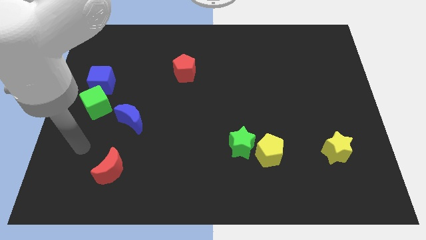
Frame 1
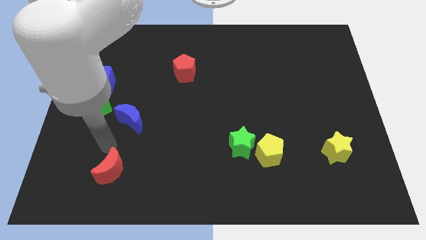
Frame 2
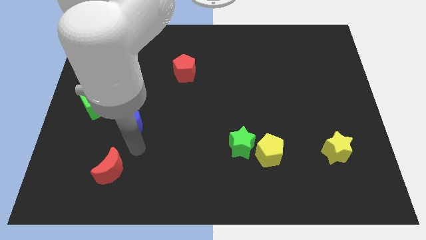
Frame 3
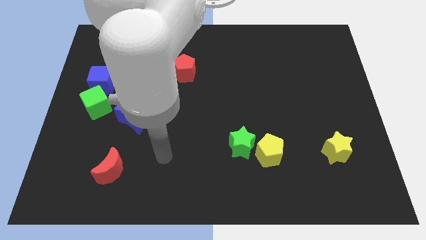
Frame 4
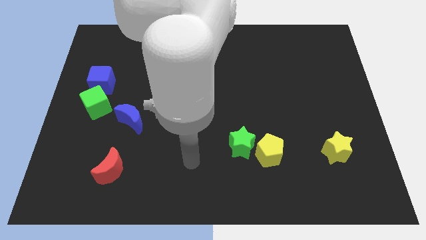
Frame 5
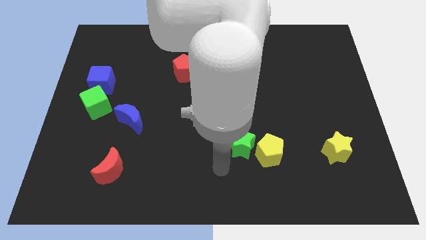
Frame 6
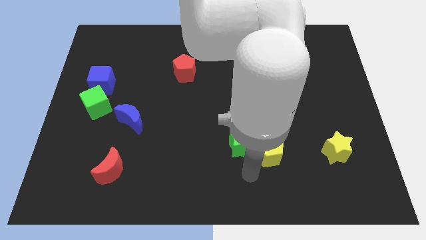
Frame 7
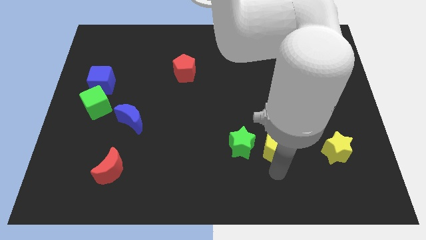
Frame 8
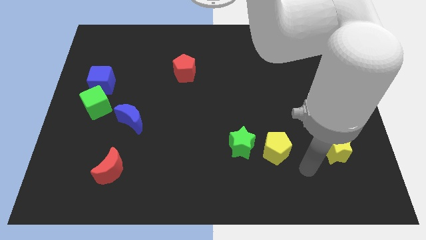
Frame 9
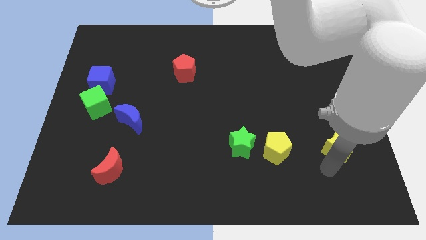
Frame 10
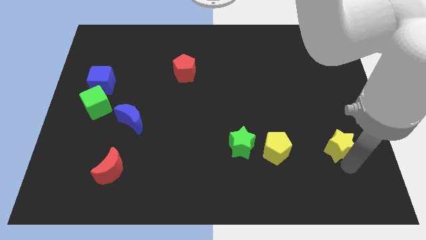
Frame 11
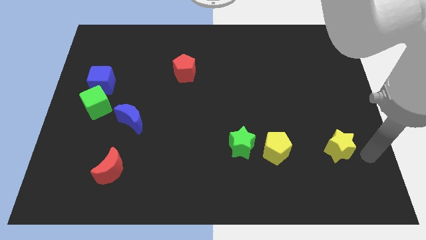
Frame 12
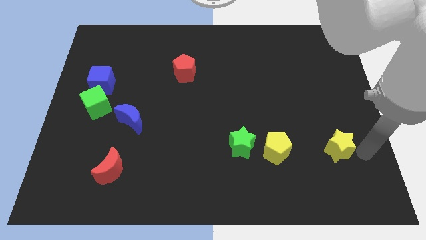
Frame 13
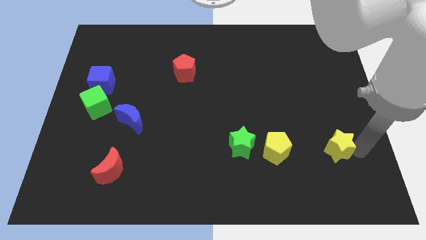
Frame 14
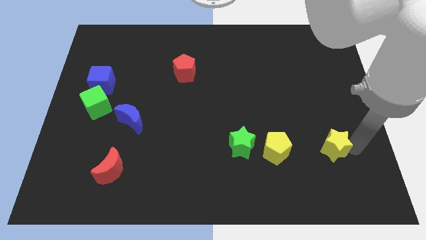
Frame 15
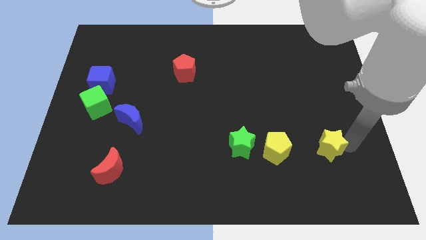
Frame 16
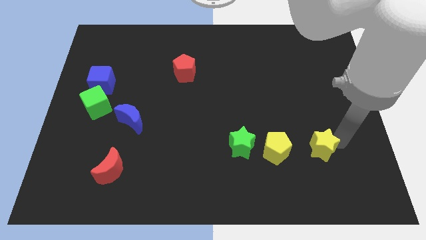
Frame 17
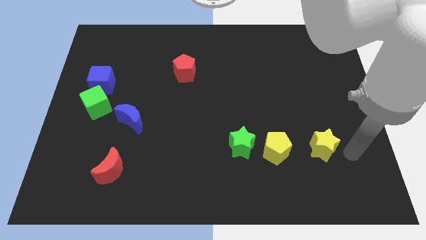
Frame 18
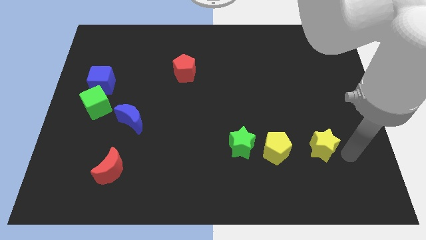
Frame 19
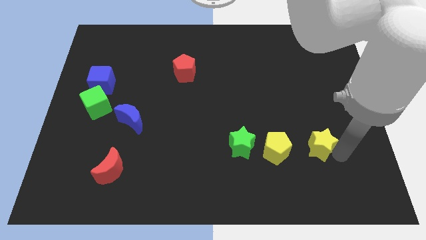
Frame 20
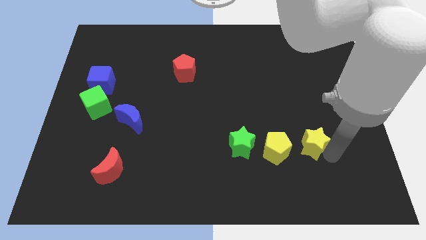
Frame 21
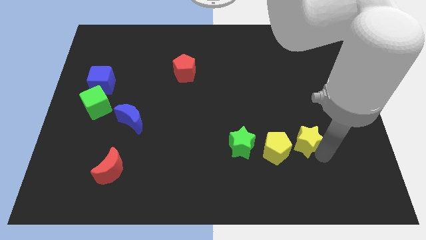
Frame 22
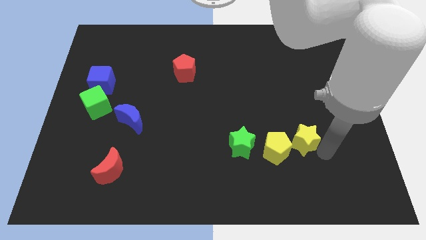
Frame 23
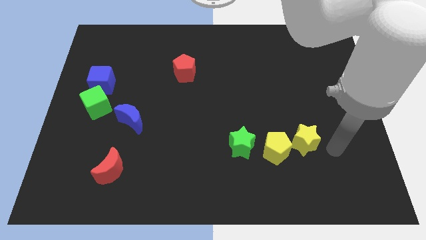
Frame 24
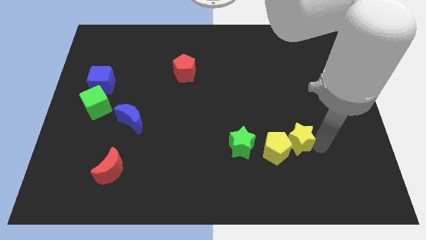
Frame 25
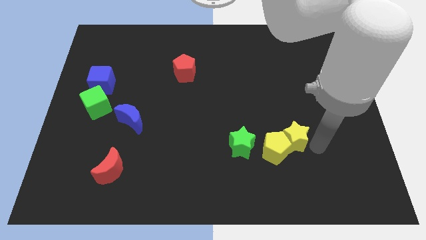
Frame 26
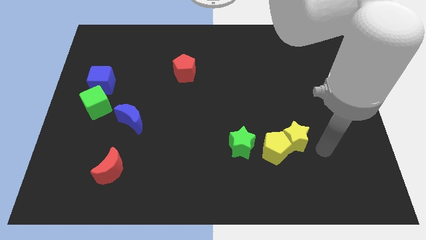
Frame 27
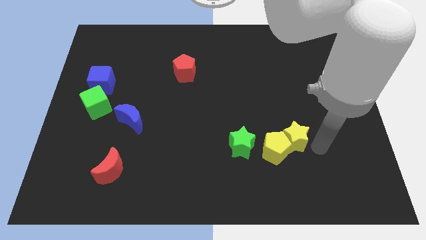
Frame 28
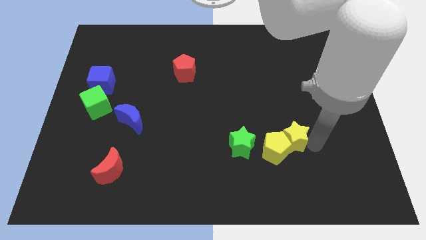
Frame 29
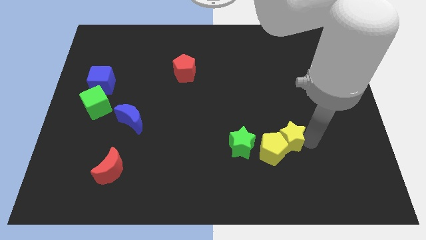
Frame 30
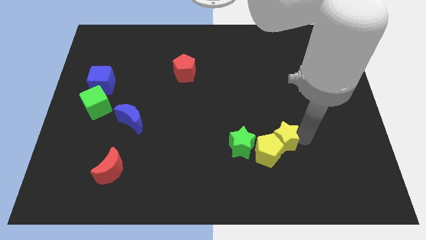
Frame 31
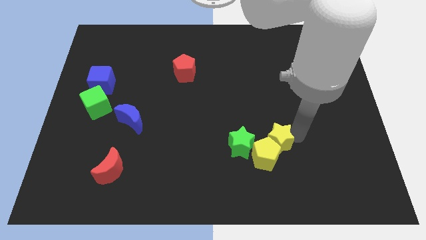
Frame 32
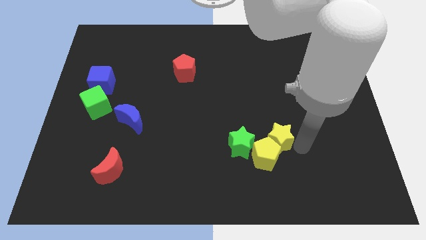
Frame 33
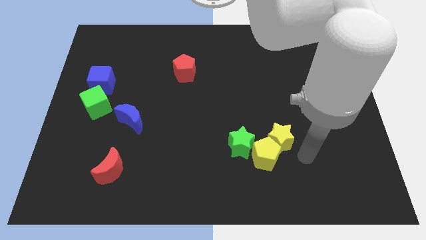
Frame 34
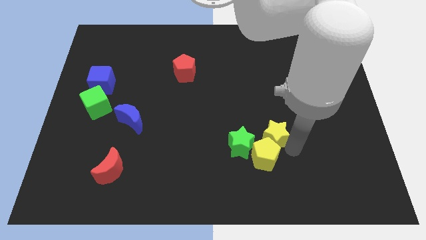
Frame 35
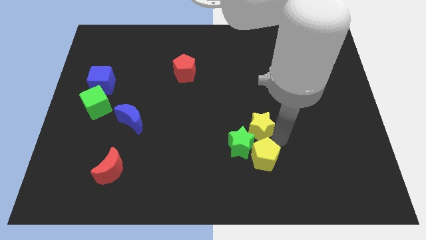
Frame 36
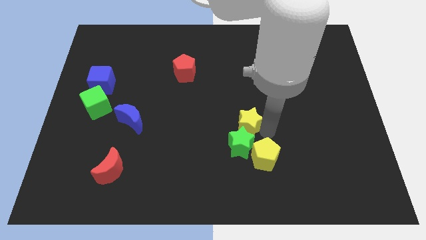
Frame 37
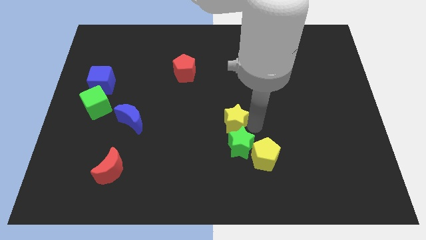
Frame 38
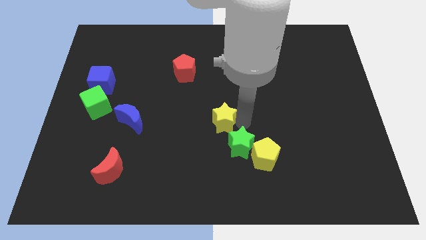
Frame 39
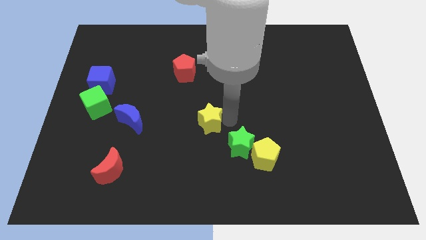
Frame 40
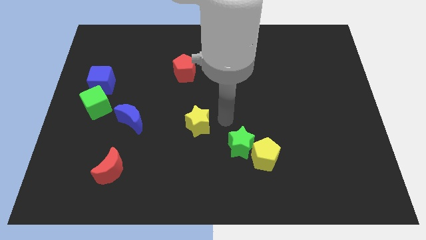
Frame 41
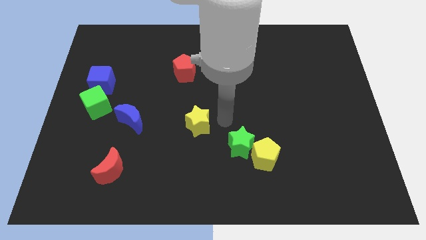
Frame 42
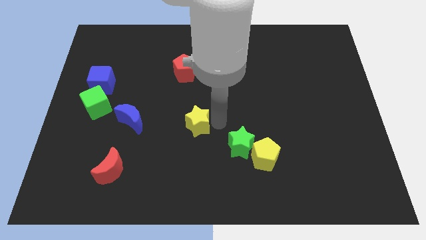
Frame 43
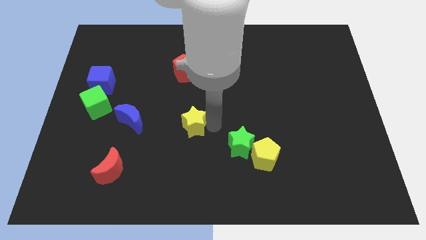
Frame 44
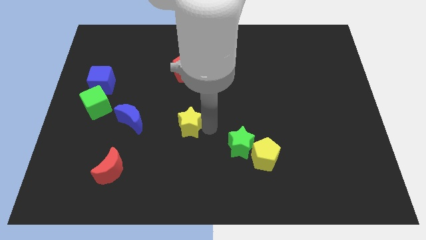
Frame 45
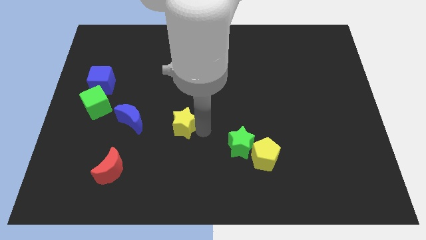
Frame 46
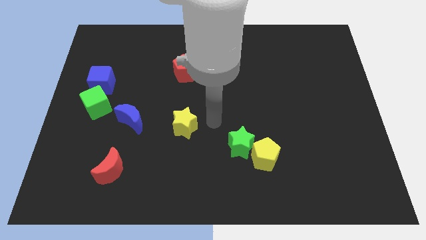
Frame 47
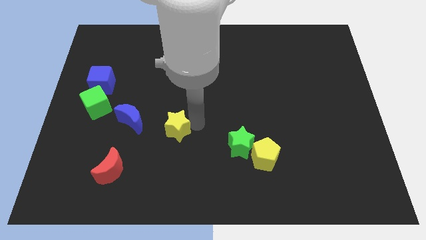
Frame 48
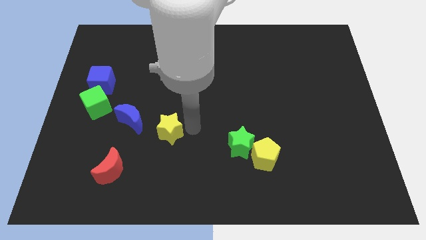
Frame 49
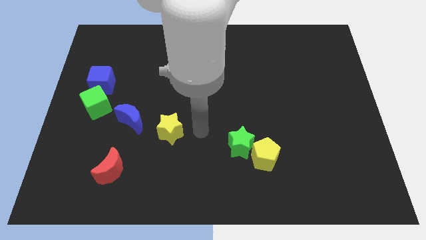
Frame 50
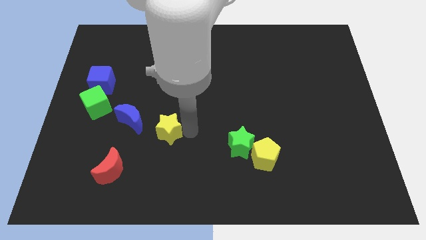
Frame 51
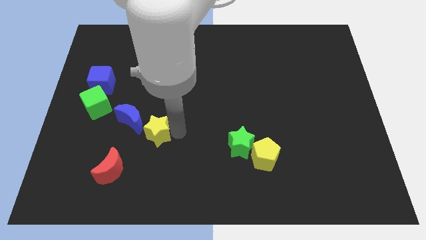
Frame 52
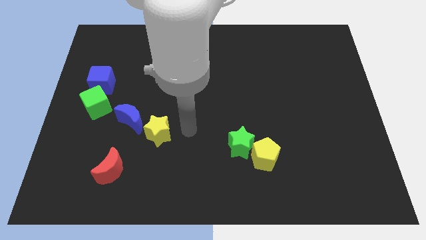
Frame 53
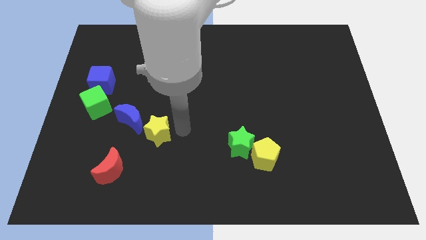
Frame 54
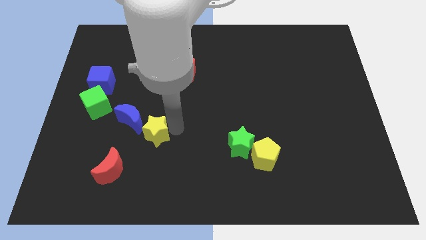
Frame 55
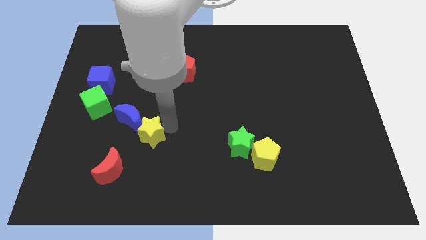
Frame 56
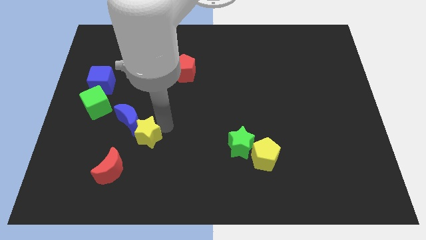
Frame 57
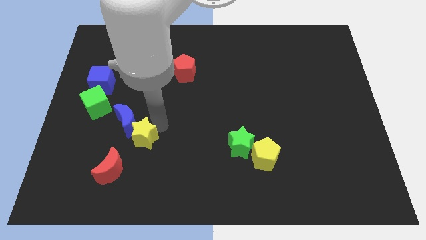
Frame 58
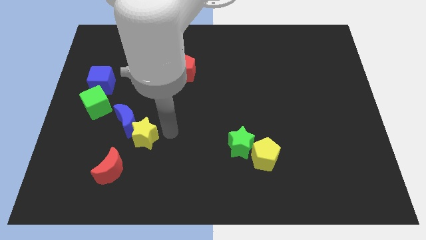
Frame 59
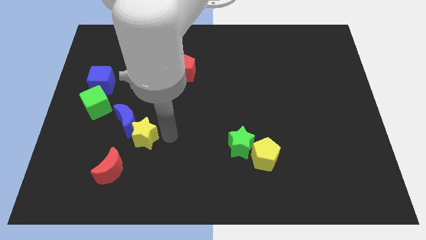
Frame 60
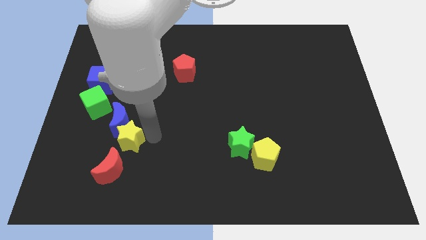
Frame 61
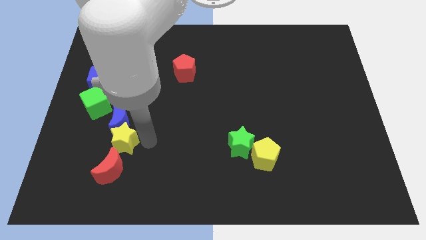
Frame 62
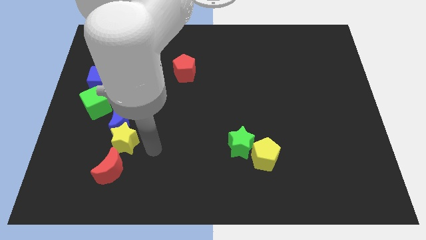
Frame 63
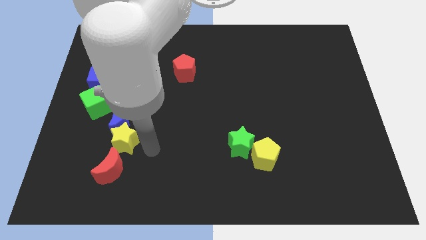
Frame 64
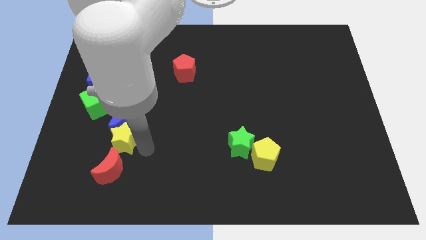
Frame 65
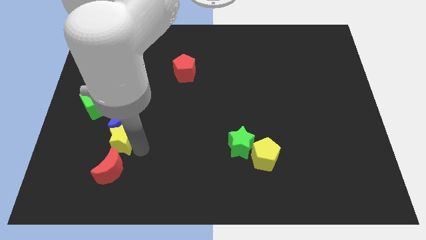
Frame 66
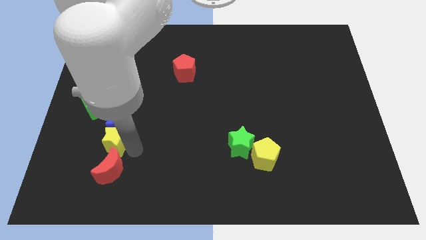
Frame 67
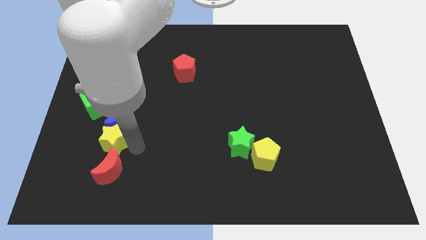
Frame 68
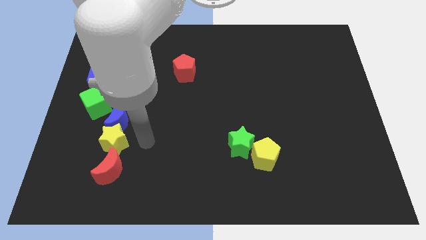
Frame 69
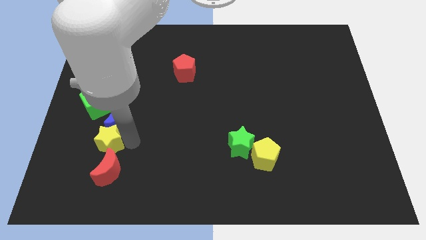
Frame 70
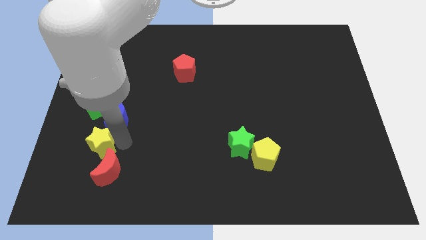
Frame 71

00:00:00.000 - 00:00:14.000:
put the yellow star to the bottom side of the green cube

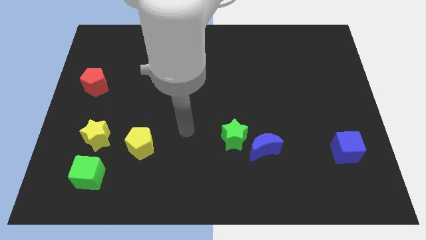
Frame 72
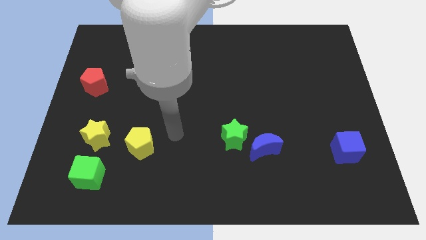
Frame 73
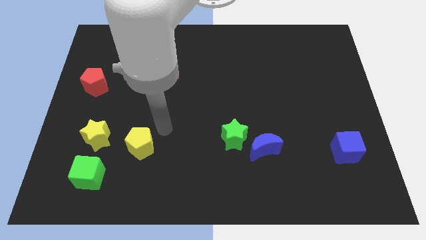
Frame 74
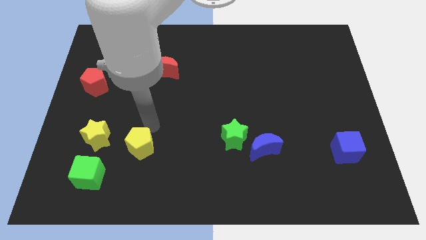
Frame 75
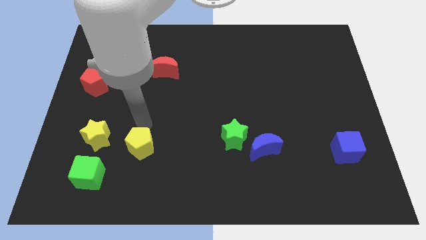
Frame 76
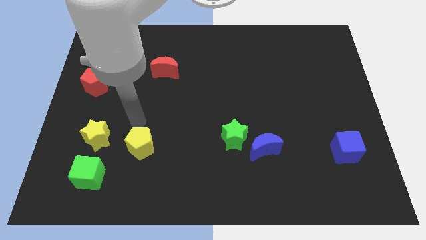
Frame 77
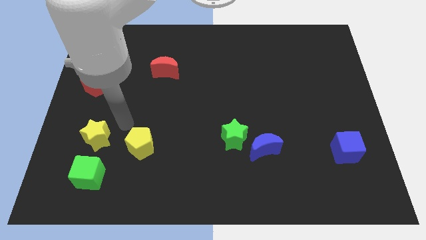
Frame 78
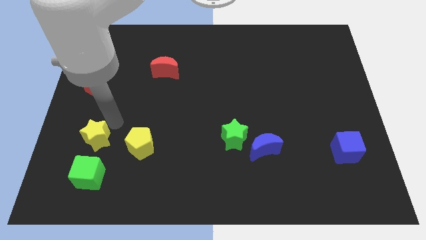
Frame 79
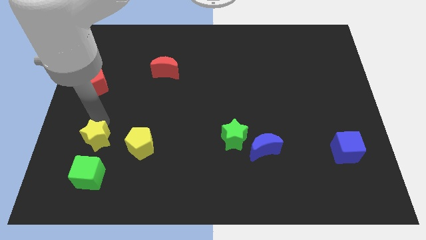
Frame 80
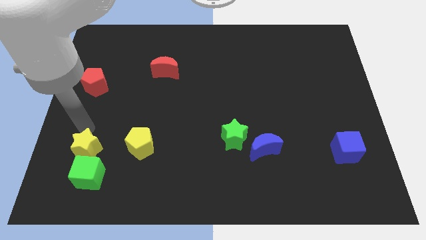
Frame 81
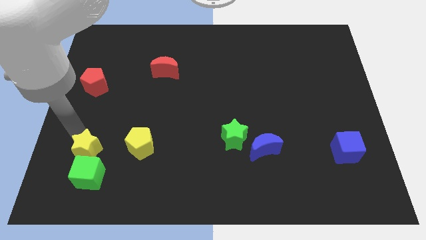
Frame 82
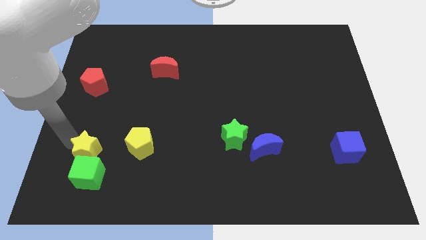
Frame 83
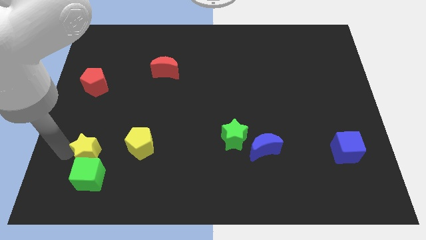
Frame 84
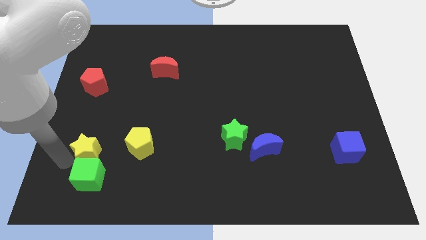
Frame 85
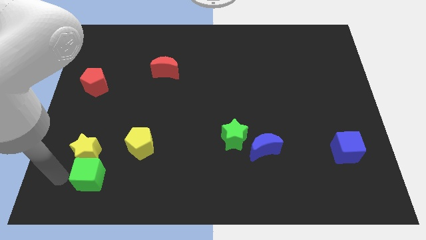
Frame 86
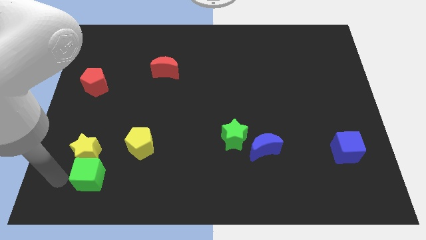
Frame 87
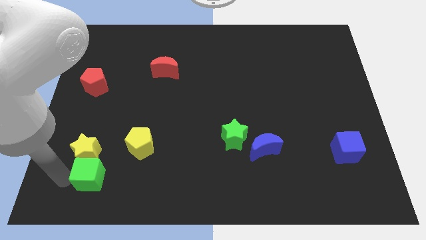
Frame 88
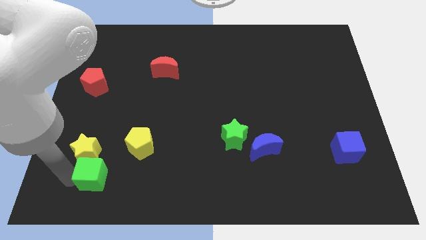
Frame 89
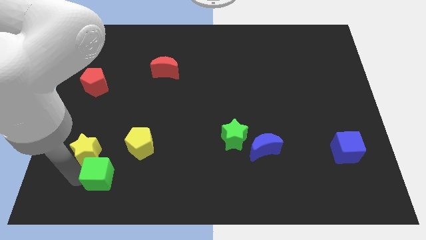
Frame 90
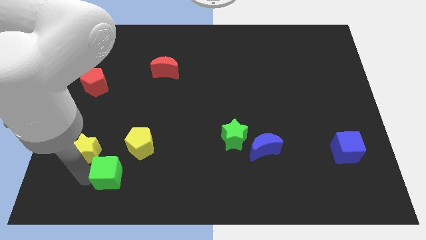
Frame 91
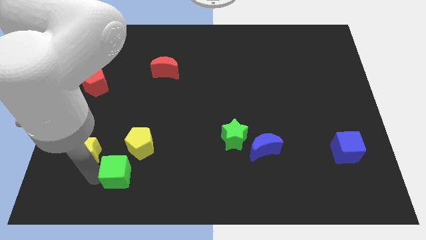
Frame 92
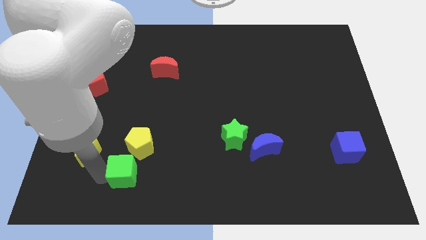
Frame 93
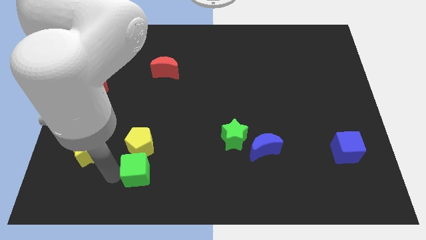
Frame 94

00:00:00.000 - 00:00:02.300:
push the green cube diagonally down and to the right of the yellow pentagon
